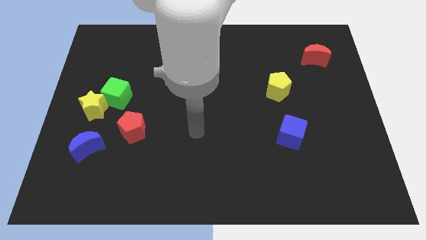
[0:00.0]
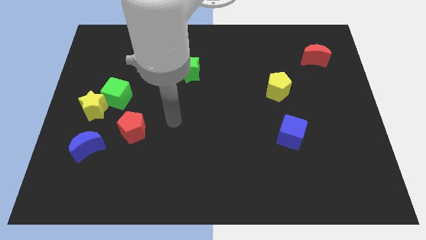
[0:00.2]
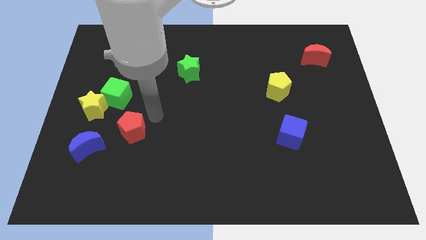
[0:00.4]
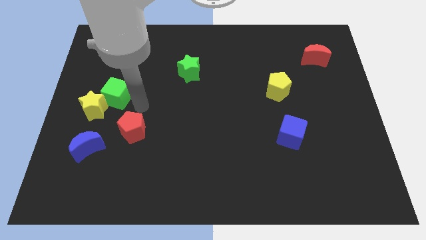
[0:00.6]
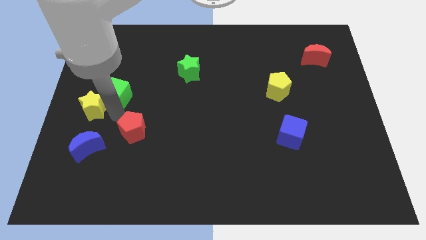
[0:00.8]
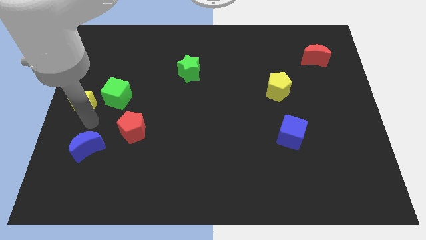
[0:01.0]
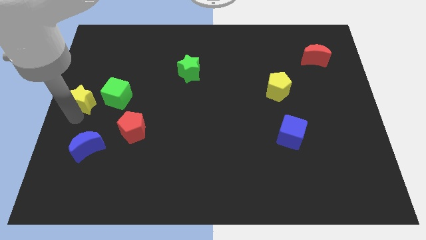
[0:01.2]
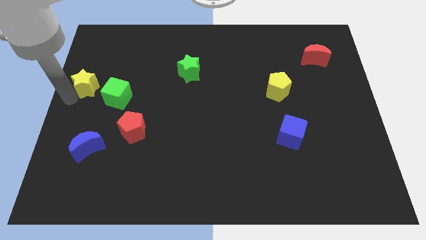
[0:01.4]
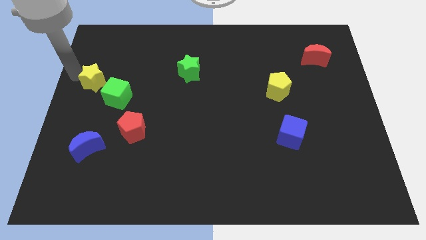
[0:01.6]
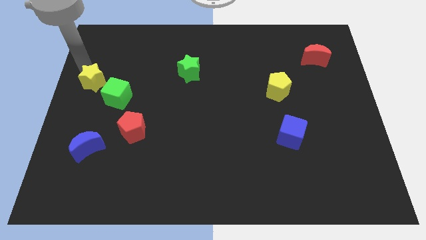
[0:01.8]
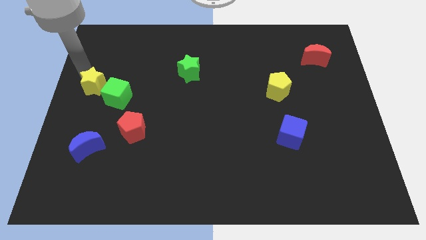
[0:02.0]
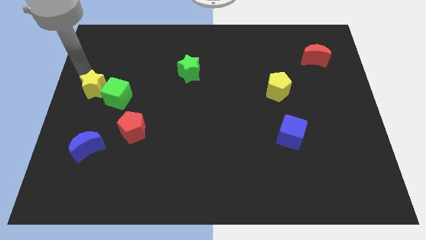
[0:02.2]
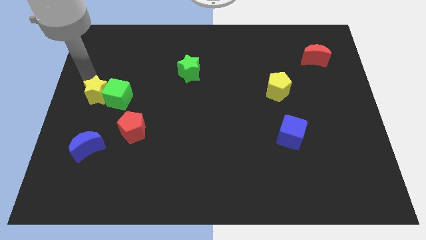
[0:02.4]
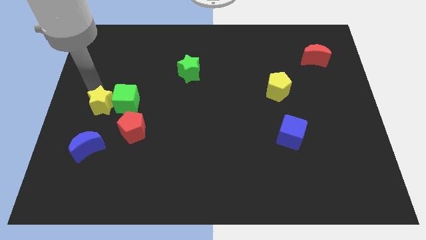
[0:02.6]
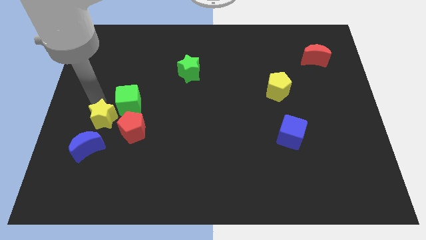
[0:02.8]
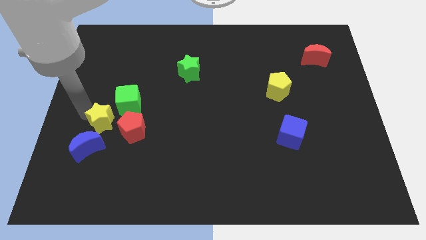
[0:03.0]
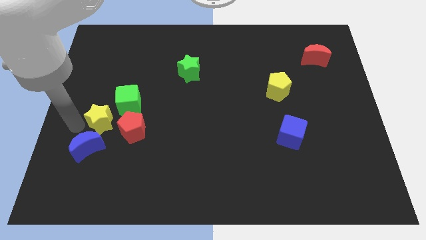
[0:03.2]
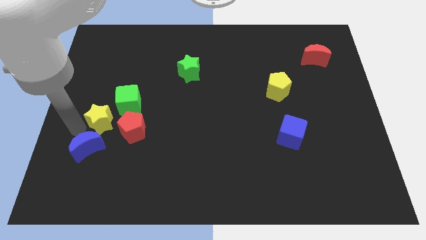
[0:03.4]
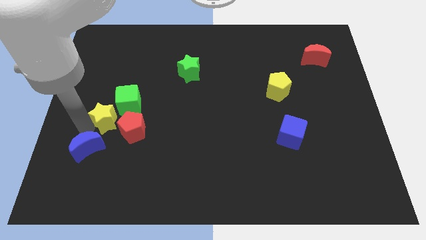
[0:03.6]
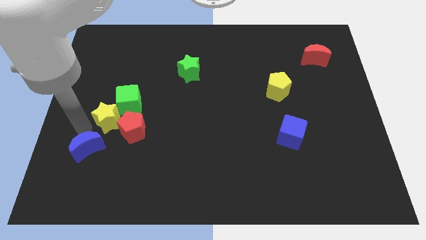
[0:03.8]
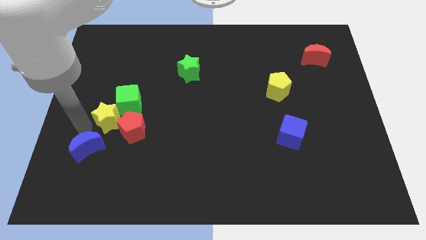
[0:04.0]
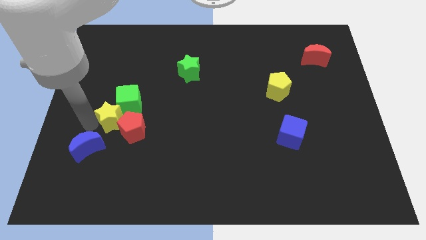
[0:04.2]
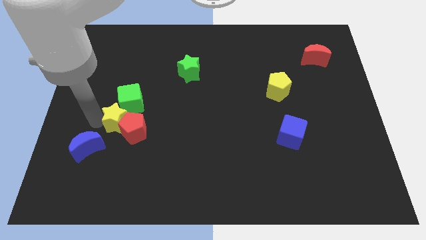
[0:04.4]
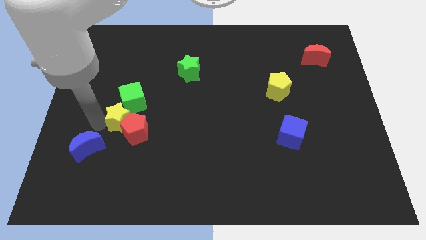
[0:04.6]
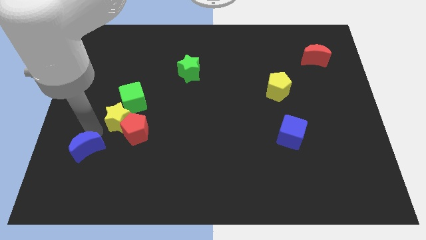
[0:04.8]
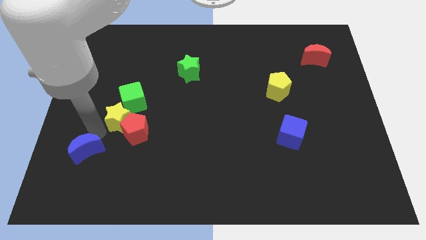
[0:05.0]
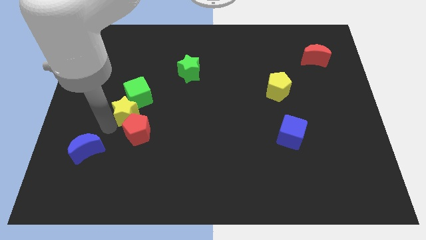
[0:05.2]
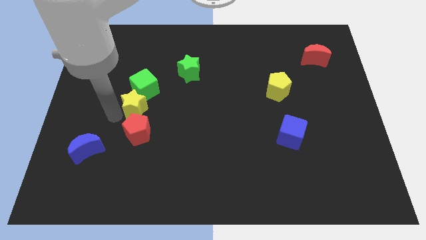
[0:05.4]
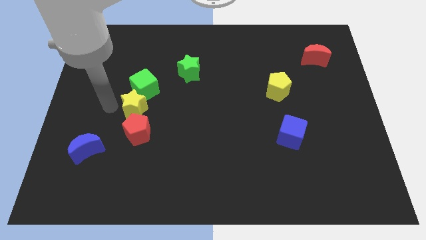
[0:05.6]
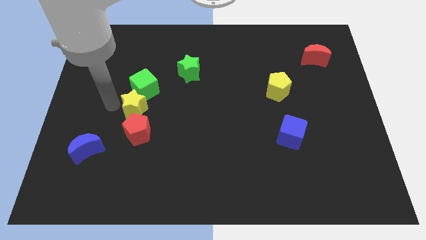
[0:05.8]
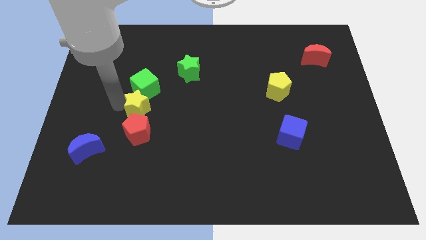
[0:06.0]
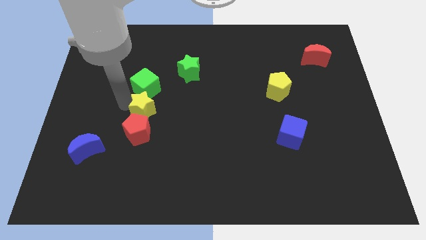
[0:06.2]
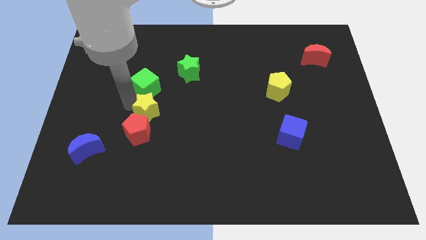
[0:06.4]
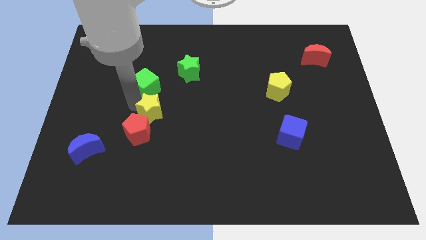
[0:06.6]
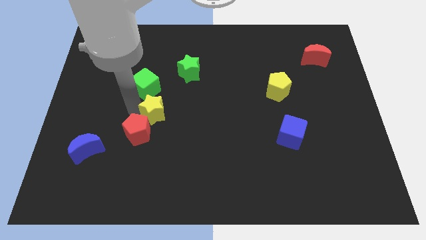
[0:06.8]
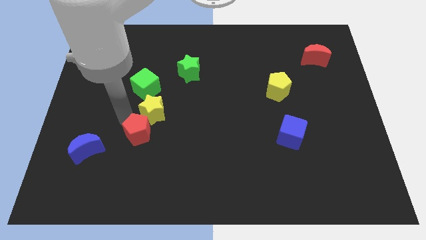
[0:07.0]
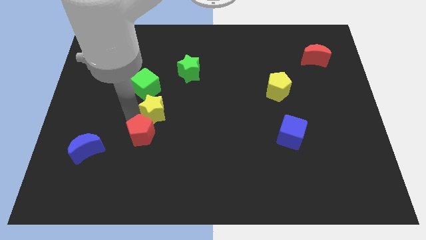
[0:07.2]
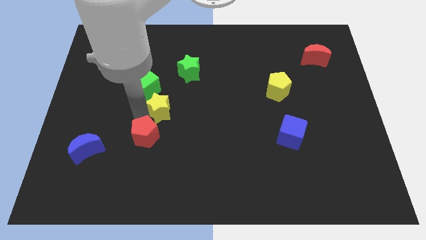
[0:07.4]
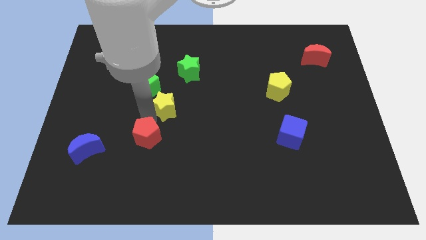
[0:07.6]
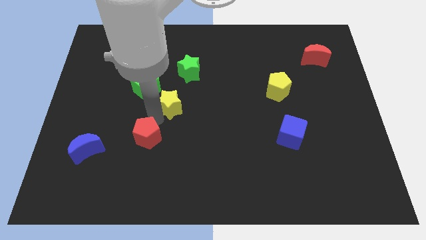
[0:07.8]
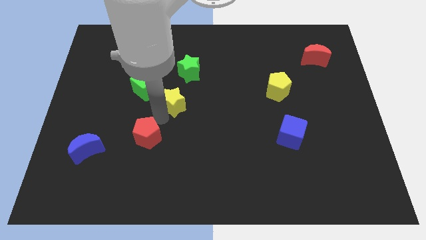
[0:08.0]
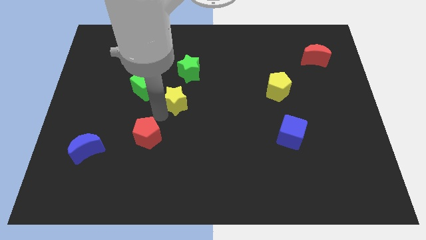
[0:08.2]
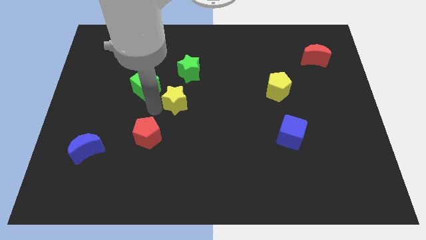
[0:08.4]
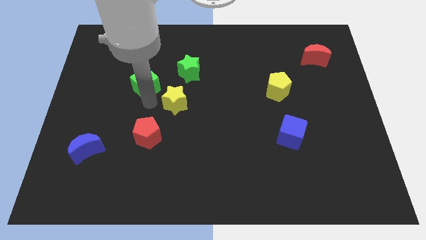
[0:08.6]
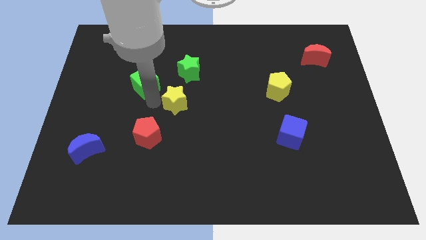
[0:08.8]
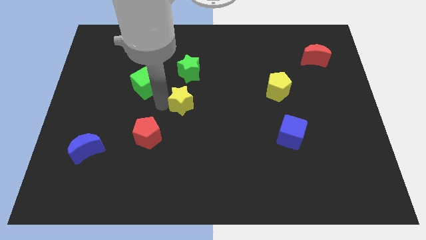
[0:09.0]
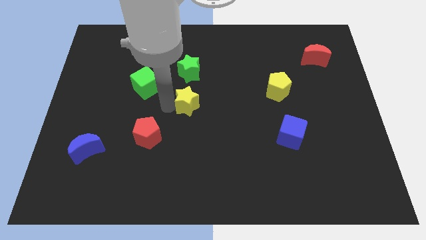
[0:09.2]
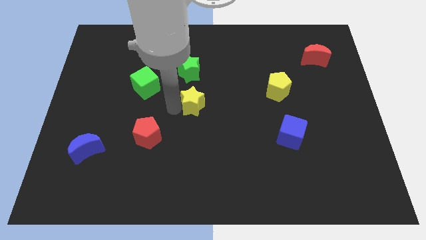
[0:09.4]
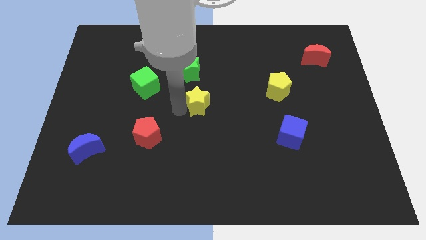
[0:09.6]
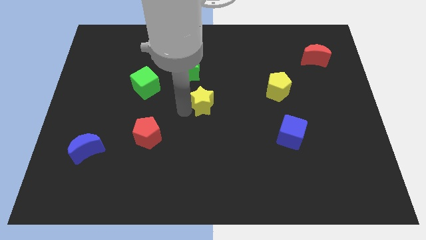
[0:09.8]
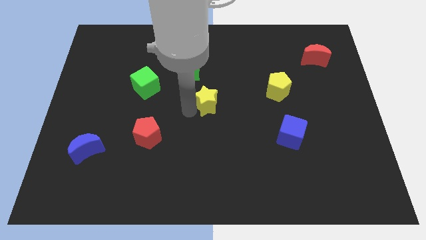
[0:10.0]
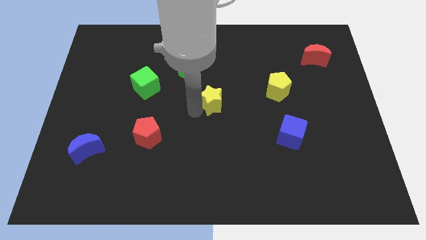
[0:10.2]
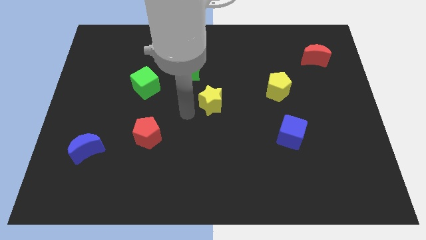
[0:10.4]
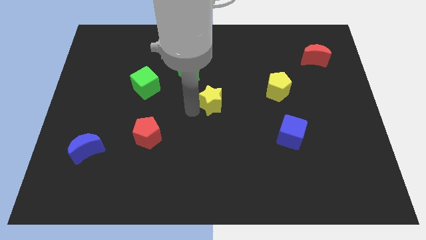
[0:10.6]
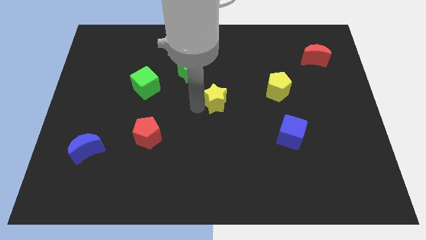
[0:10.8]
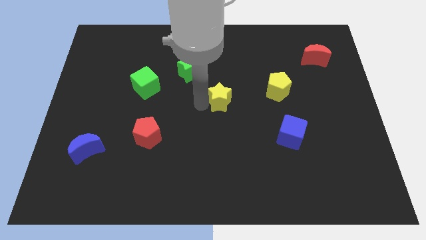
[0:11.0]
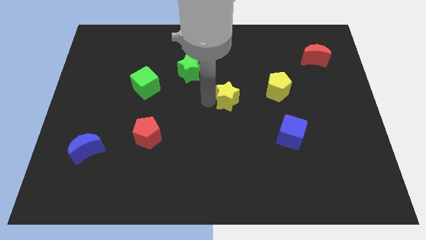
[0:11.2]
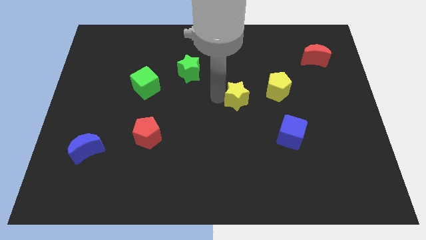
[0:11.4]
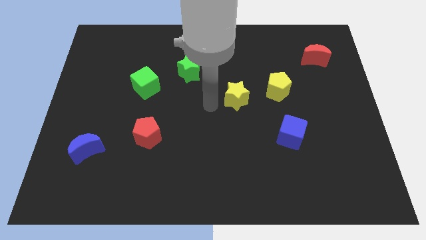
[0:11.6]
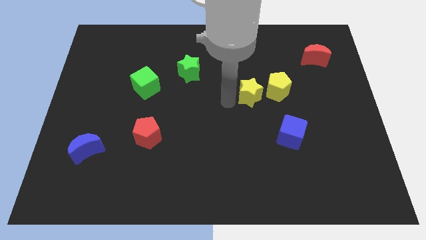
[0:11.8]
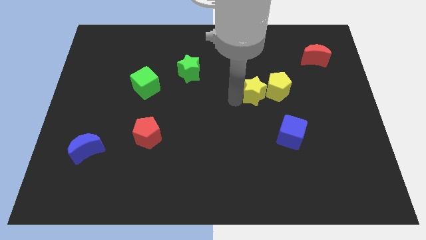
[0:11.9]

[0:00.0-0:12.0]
slide the yellow star next to the yellow pentagon
